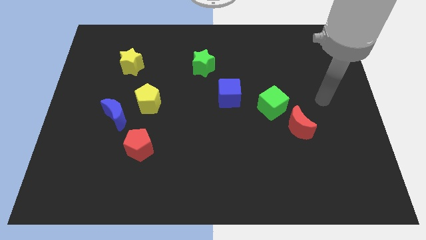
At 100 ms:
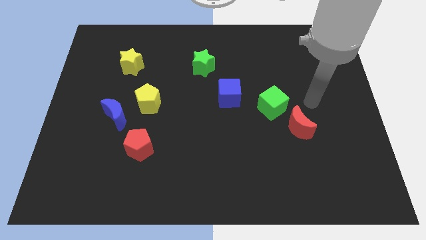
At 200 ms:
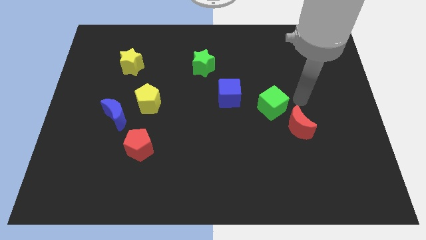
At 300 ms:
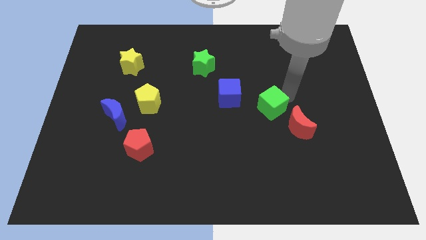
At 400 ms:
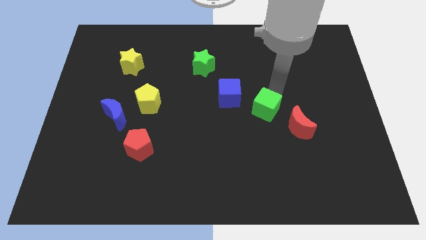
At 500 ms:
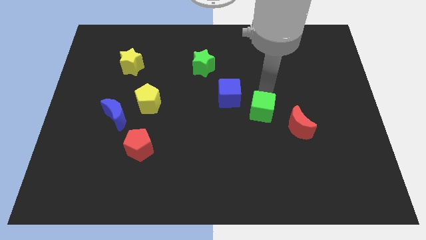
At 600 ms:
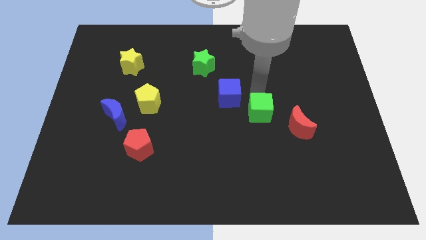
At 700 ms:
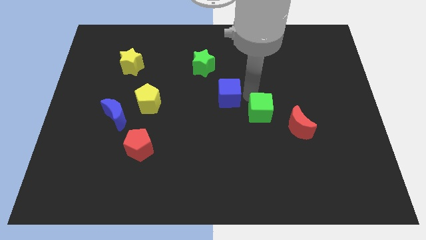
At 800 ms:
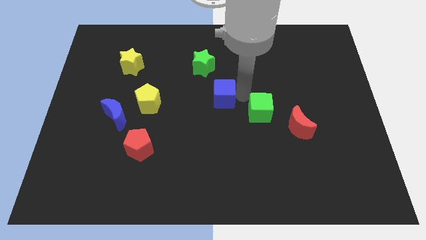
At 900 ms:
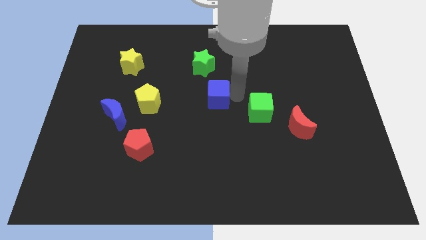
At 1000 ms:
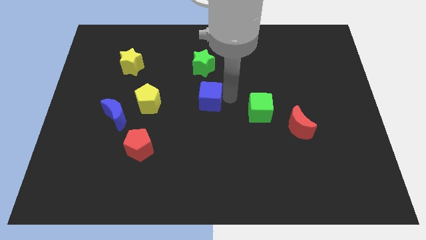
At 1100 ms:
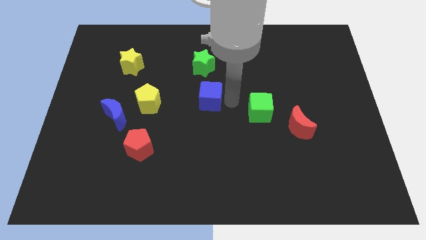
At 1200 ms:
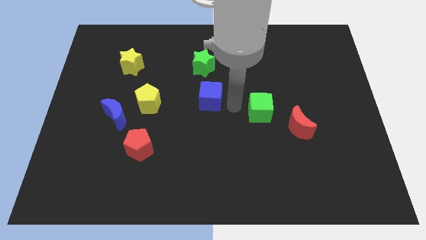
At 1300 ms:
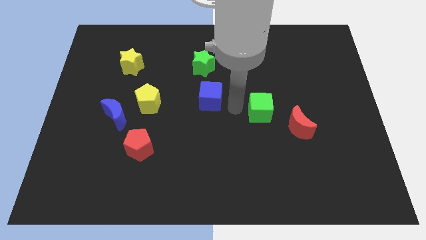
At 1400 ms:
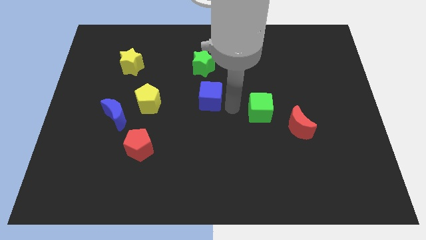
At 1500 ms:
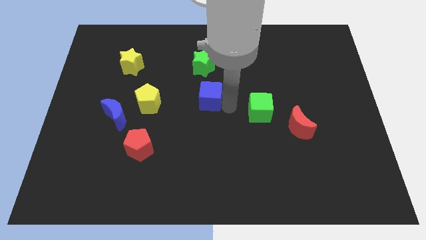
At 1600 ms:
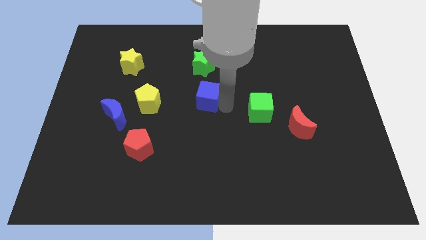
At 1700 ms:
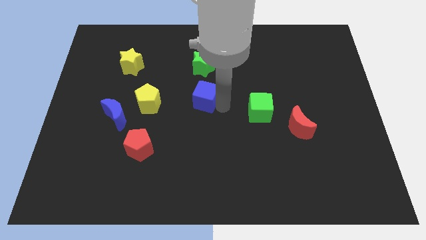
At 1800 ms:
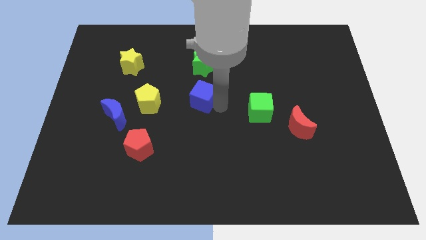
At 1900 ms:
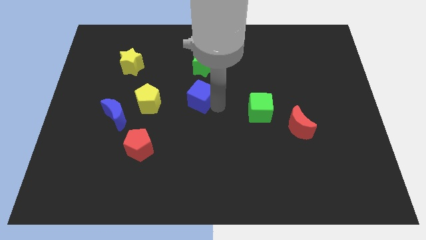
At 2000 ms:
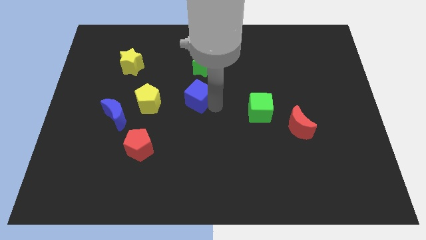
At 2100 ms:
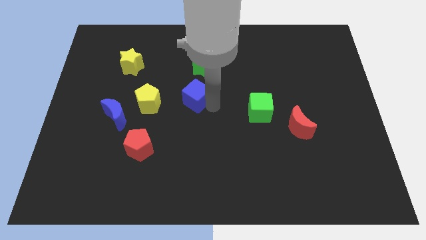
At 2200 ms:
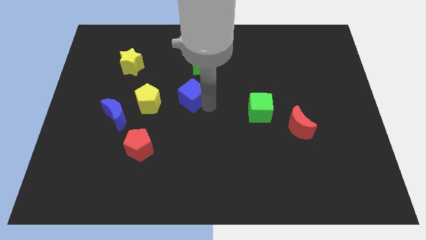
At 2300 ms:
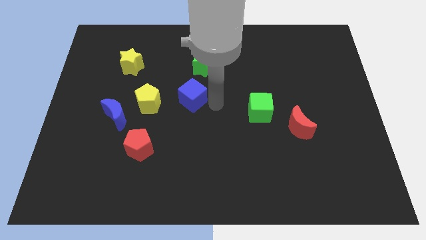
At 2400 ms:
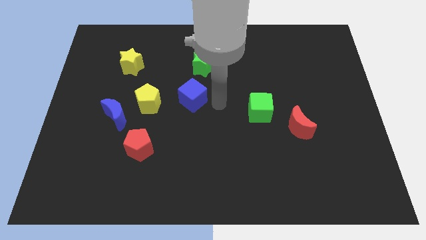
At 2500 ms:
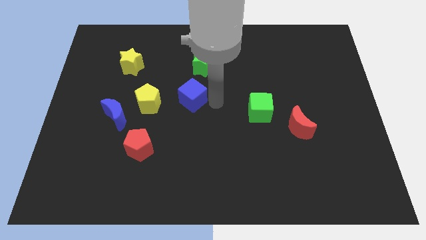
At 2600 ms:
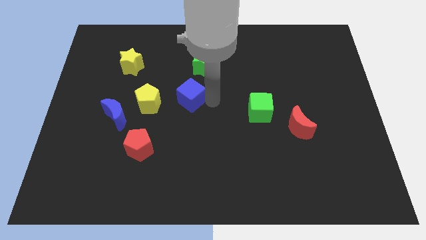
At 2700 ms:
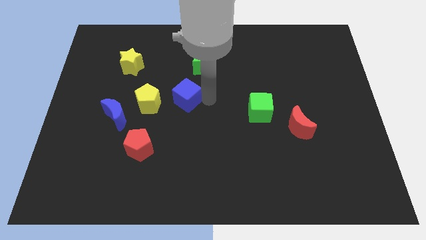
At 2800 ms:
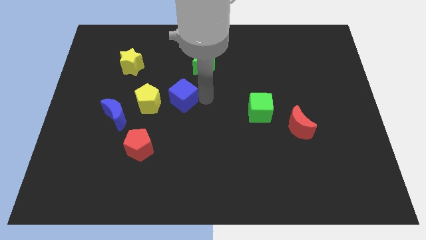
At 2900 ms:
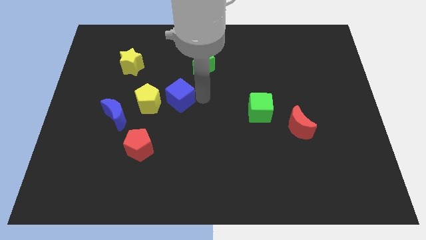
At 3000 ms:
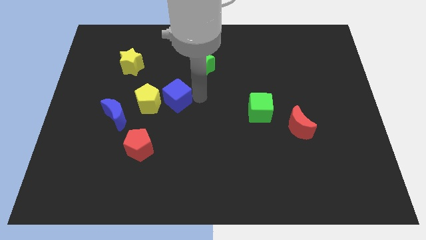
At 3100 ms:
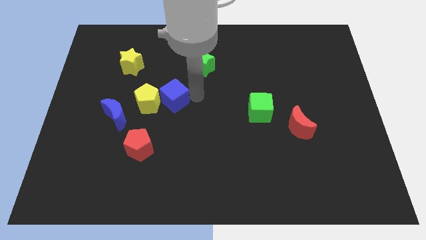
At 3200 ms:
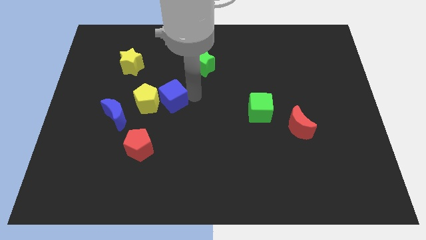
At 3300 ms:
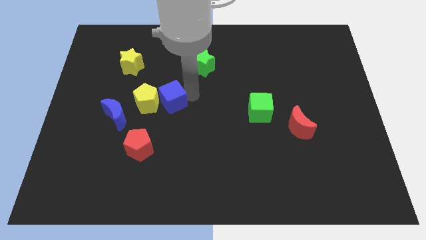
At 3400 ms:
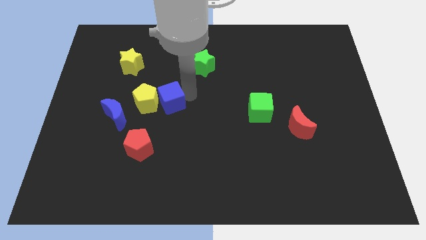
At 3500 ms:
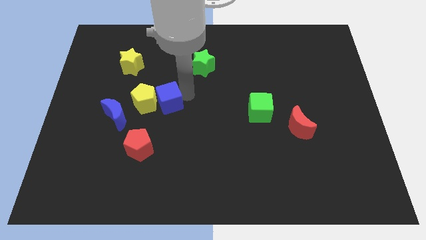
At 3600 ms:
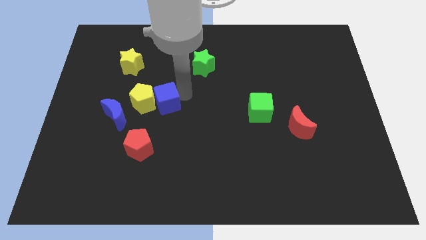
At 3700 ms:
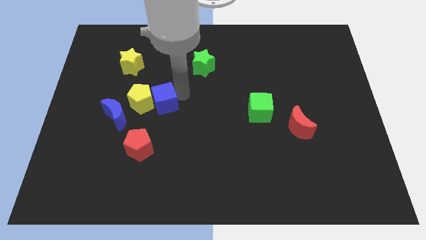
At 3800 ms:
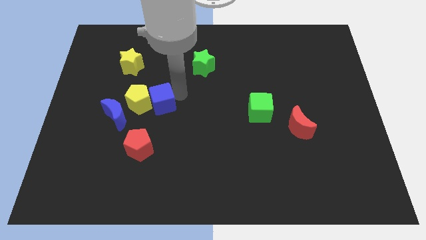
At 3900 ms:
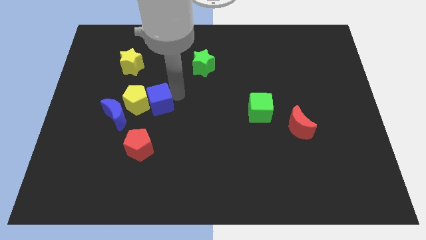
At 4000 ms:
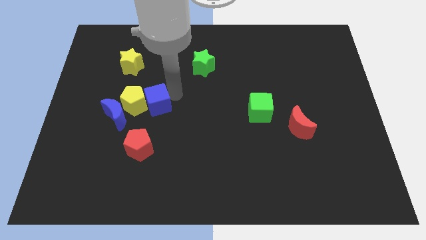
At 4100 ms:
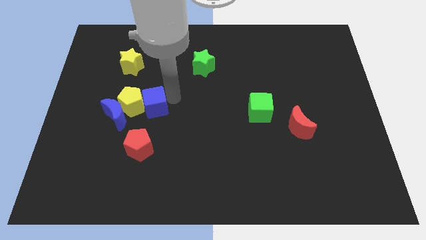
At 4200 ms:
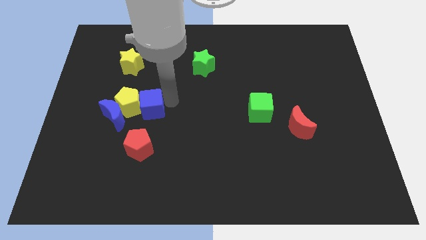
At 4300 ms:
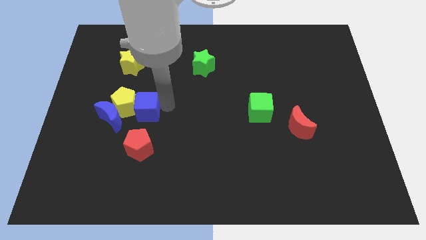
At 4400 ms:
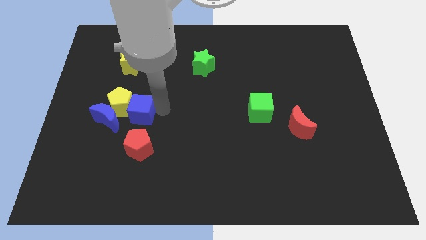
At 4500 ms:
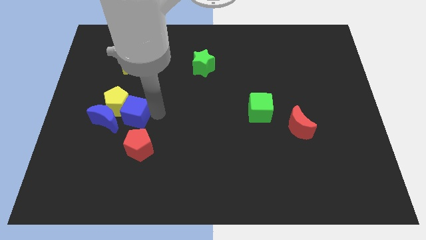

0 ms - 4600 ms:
push the blue cube left

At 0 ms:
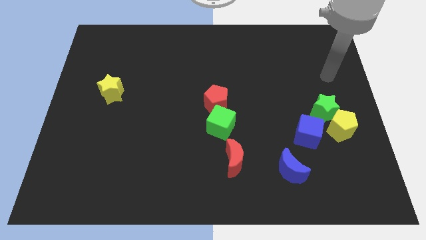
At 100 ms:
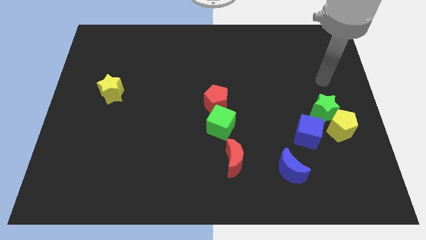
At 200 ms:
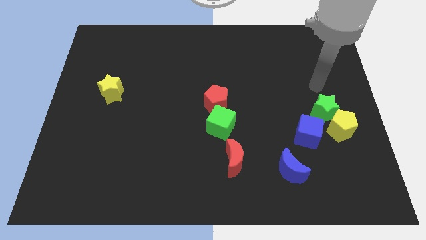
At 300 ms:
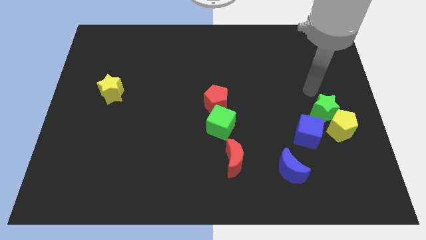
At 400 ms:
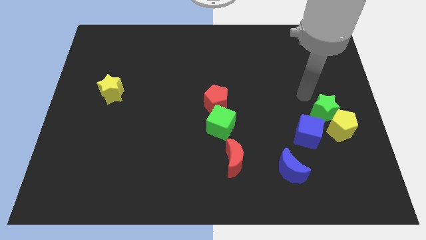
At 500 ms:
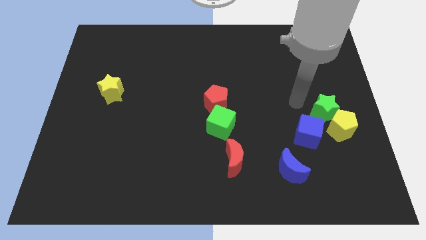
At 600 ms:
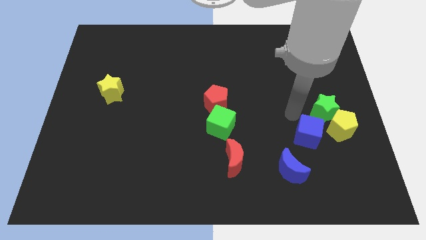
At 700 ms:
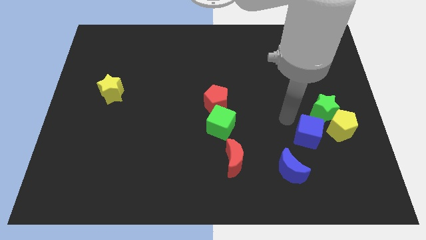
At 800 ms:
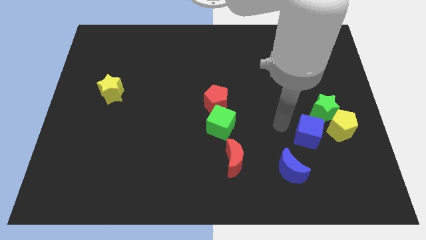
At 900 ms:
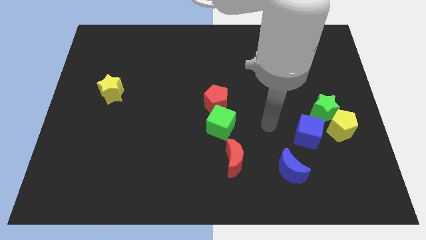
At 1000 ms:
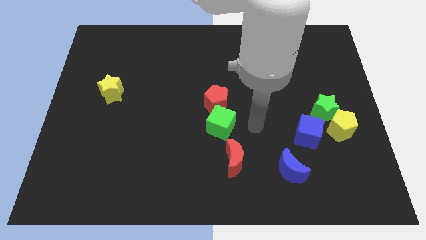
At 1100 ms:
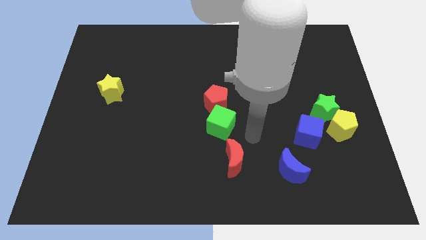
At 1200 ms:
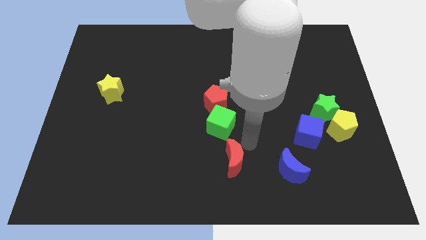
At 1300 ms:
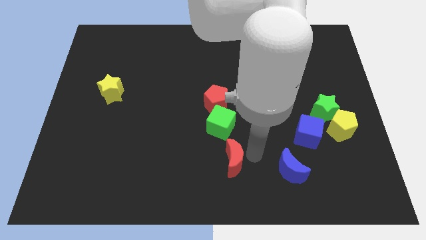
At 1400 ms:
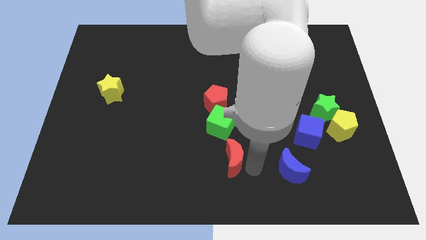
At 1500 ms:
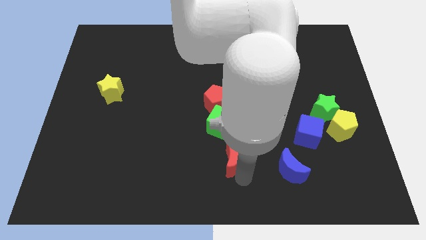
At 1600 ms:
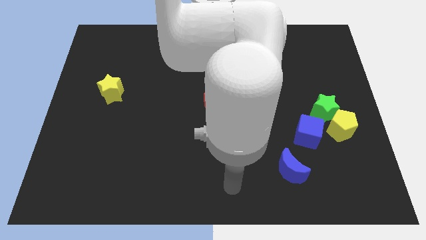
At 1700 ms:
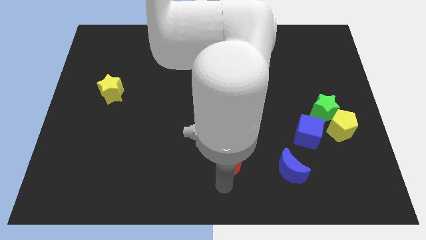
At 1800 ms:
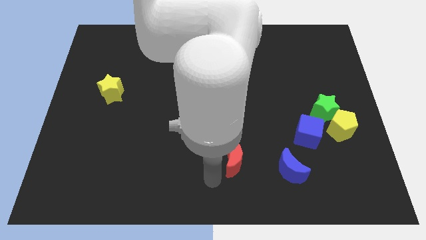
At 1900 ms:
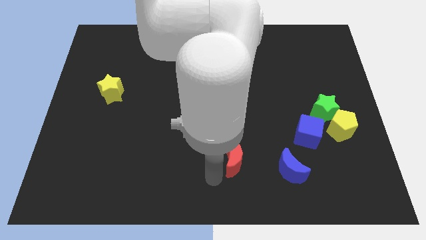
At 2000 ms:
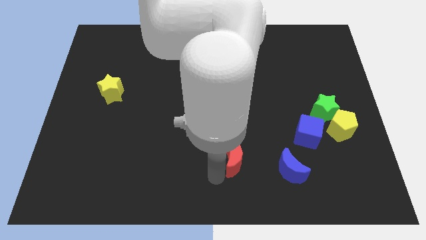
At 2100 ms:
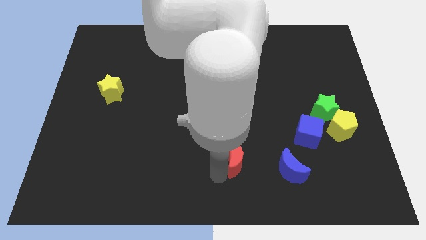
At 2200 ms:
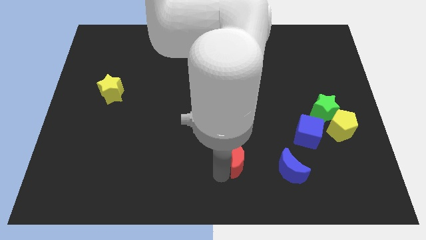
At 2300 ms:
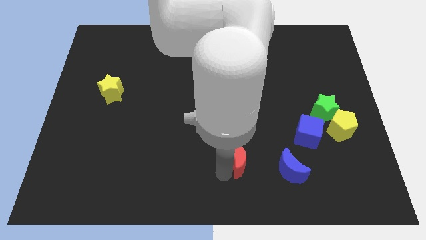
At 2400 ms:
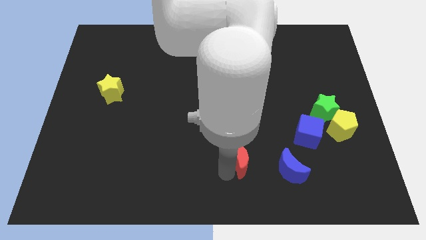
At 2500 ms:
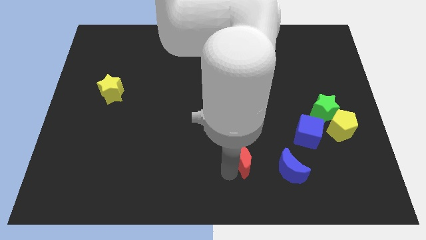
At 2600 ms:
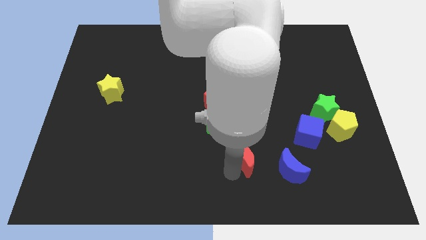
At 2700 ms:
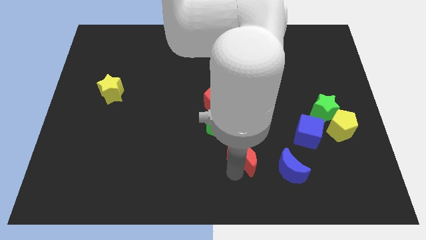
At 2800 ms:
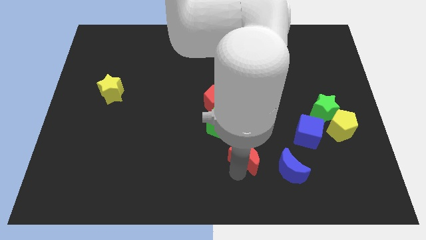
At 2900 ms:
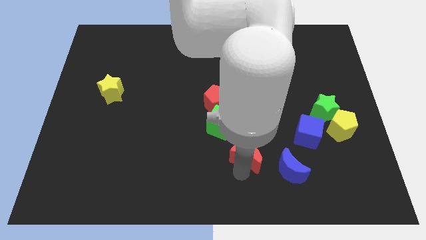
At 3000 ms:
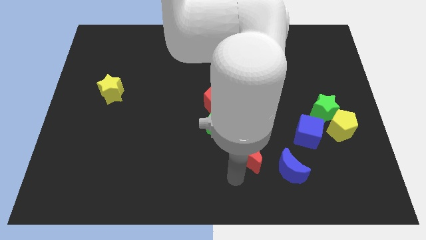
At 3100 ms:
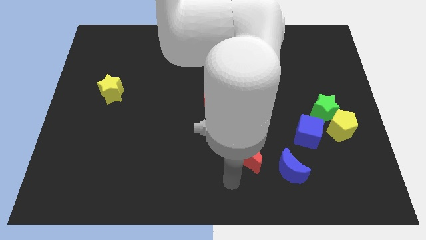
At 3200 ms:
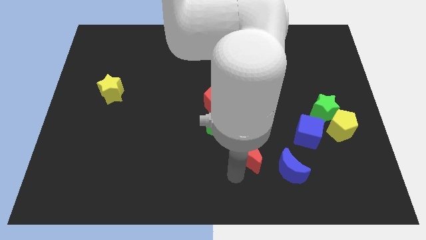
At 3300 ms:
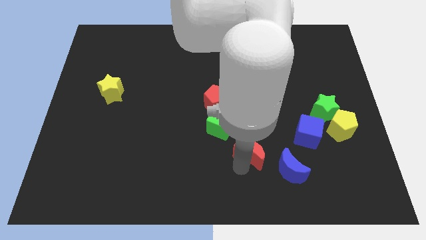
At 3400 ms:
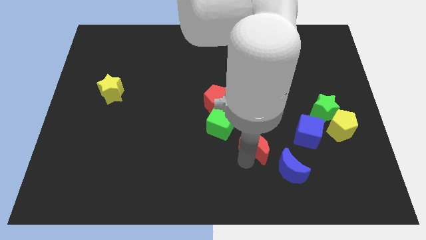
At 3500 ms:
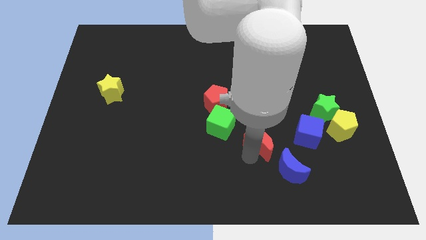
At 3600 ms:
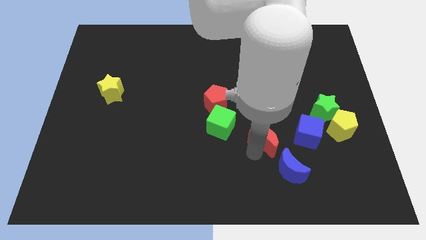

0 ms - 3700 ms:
slightly move the red moon up and right diagonally
